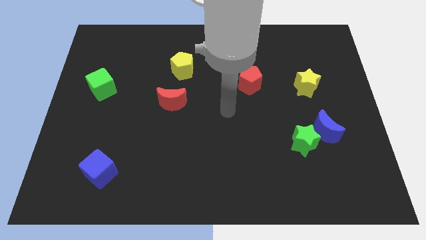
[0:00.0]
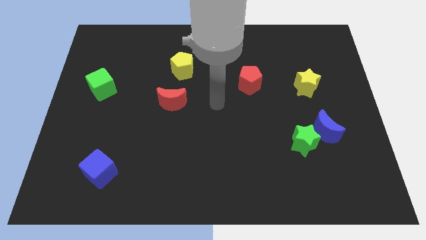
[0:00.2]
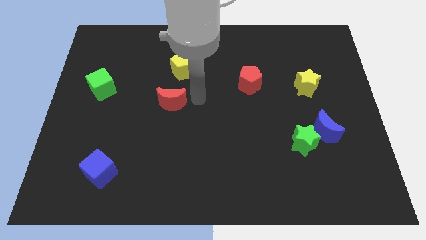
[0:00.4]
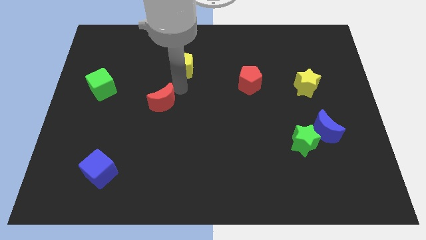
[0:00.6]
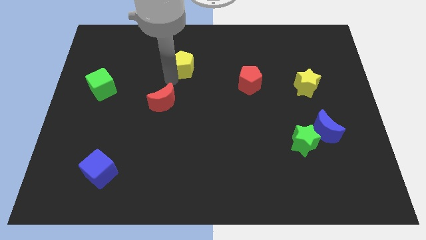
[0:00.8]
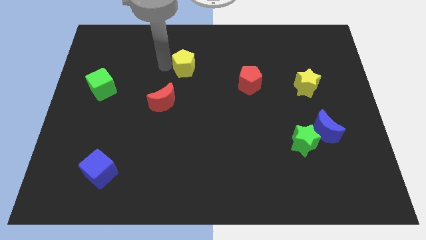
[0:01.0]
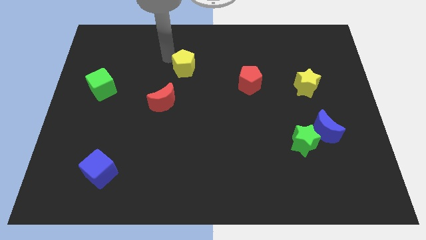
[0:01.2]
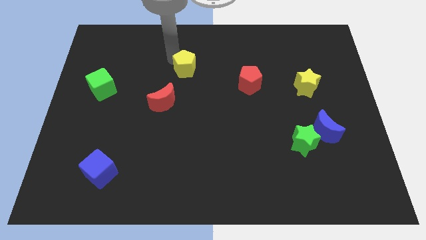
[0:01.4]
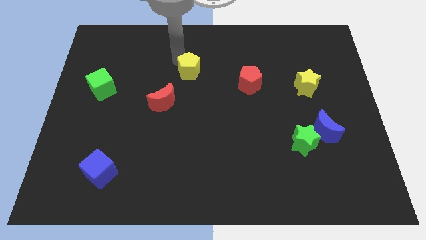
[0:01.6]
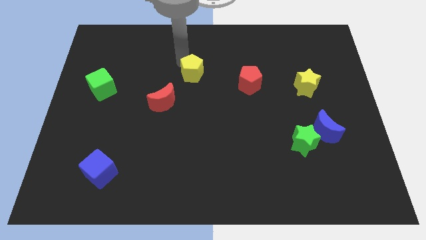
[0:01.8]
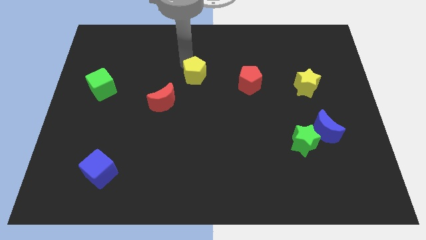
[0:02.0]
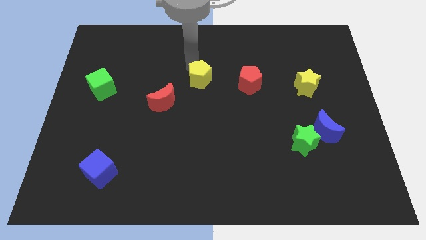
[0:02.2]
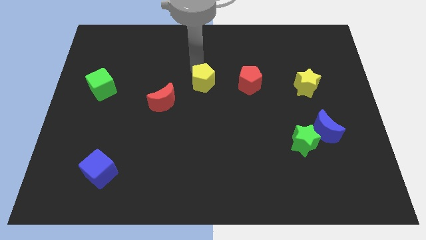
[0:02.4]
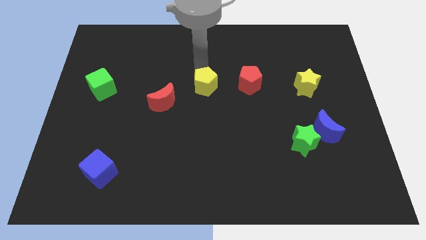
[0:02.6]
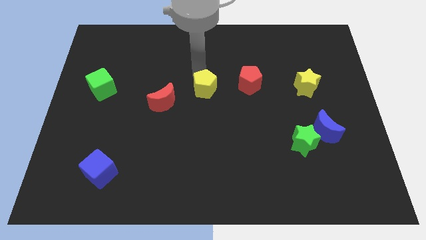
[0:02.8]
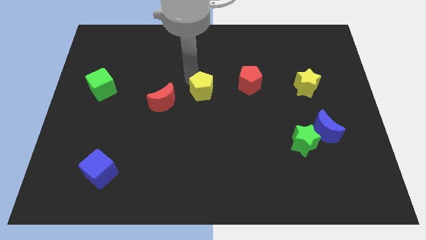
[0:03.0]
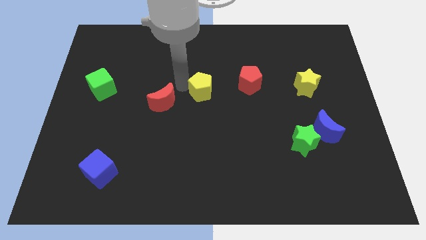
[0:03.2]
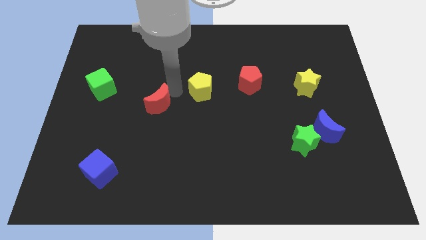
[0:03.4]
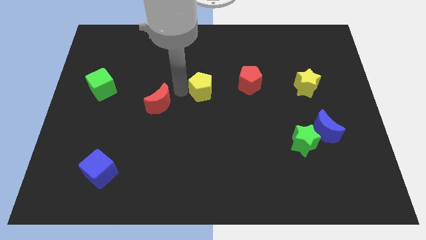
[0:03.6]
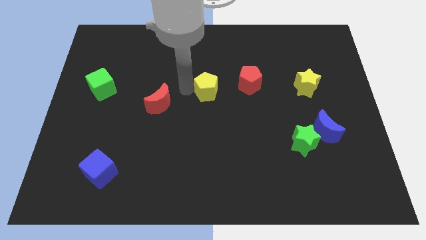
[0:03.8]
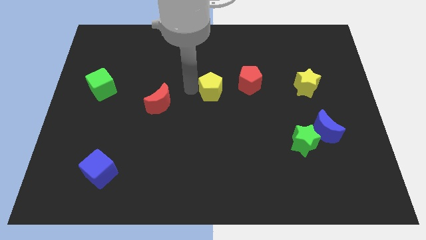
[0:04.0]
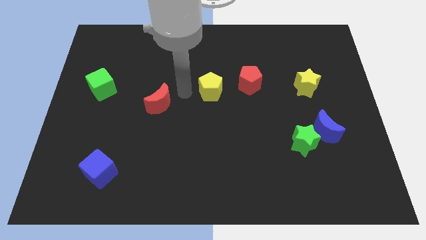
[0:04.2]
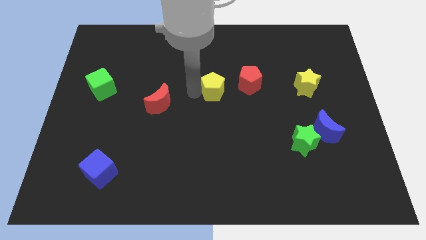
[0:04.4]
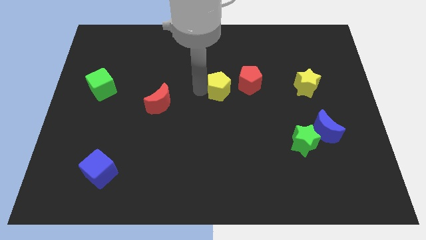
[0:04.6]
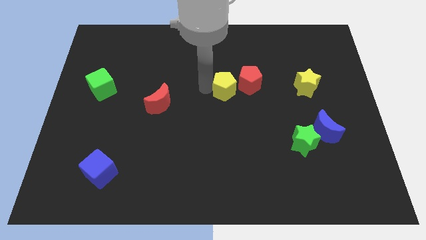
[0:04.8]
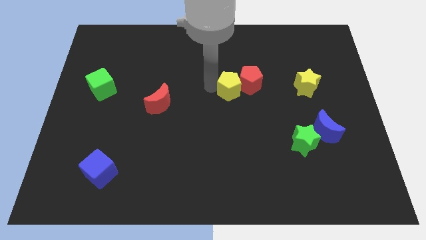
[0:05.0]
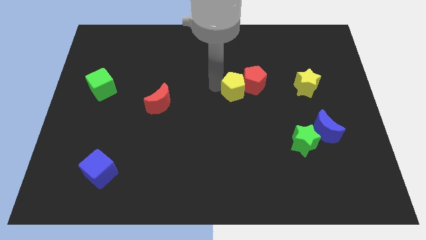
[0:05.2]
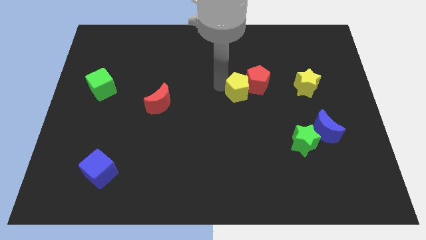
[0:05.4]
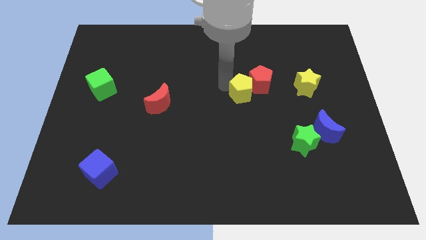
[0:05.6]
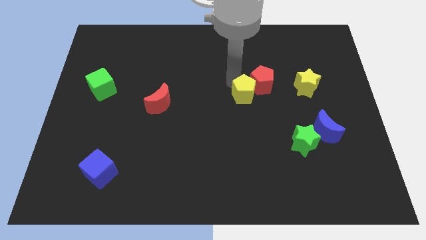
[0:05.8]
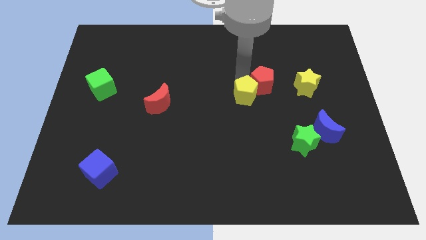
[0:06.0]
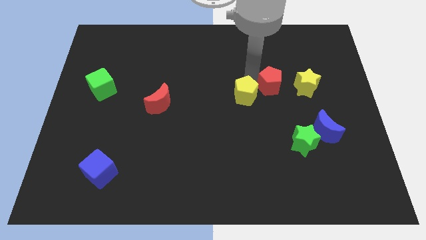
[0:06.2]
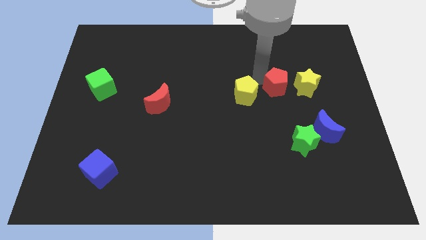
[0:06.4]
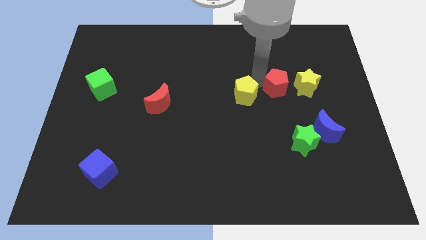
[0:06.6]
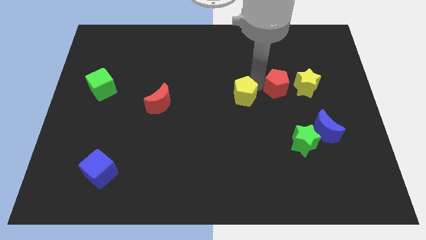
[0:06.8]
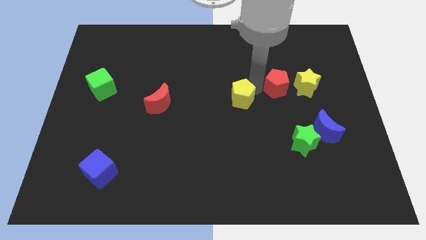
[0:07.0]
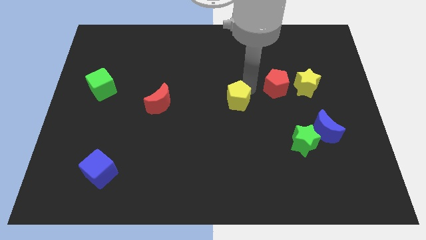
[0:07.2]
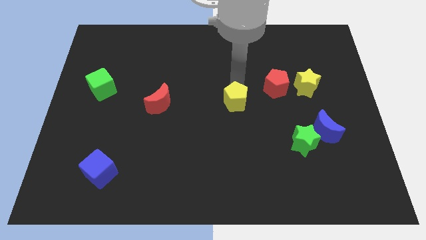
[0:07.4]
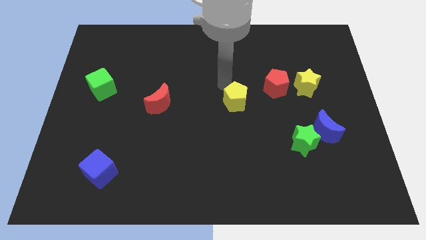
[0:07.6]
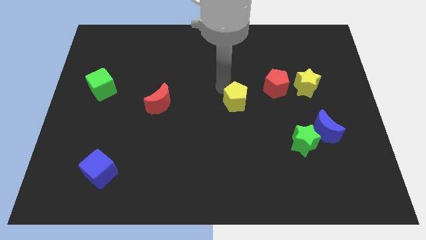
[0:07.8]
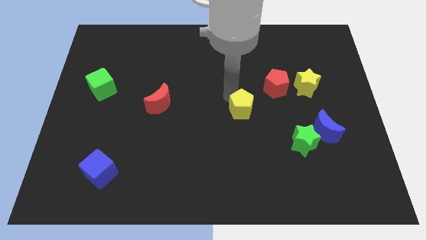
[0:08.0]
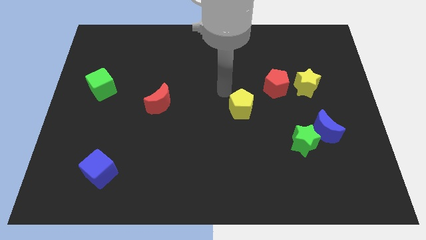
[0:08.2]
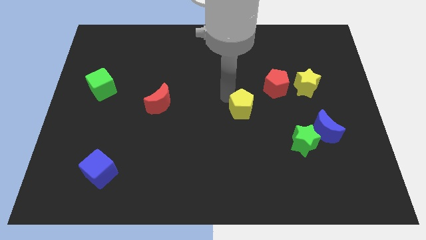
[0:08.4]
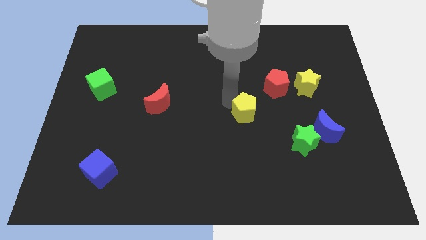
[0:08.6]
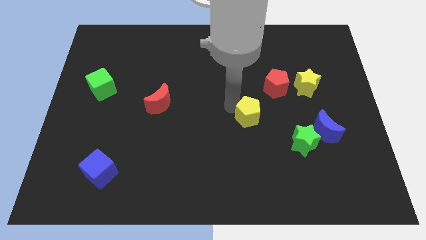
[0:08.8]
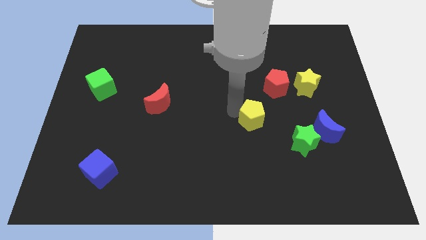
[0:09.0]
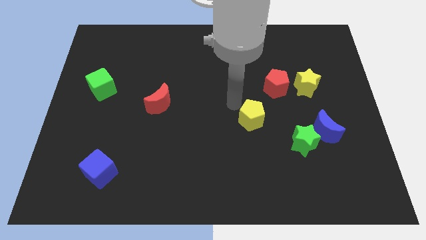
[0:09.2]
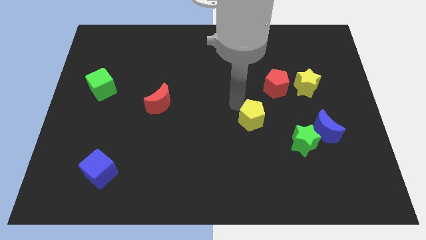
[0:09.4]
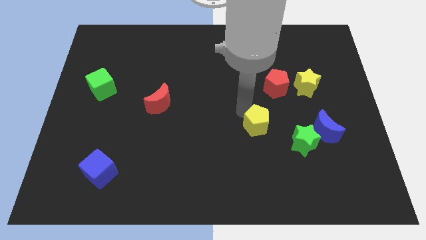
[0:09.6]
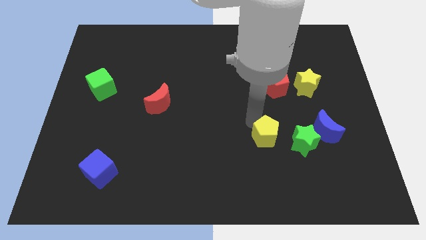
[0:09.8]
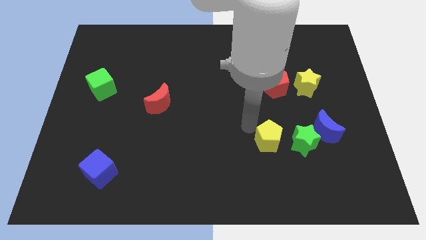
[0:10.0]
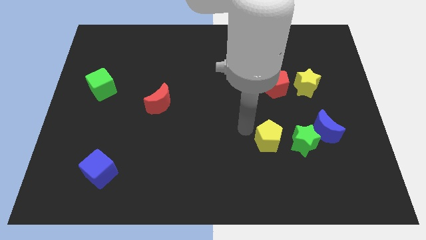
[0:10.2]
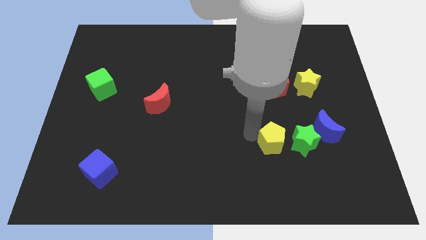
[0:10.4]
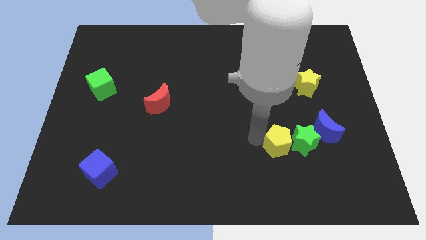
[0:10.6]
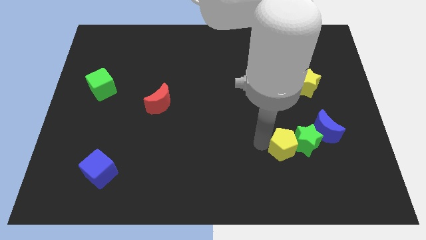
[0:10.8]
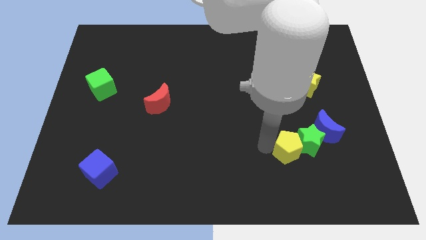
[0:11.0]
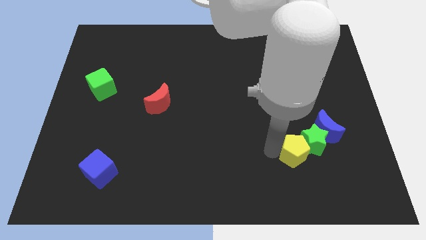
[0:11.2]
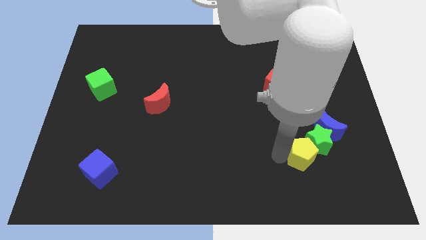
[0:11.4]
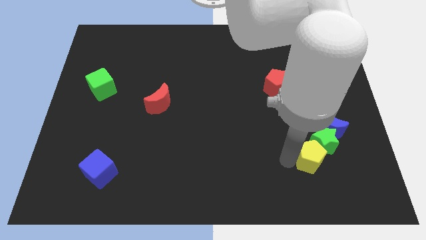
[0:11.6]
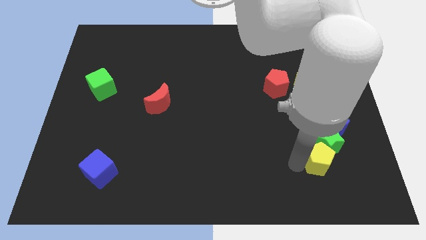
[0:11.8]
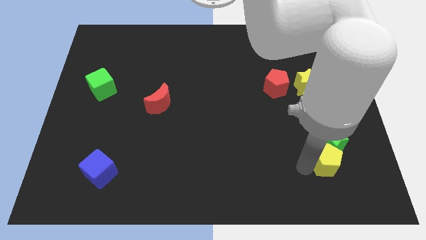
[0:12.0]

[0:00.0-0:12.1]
move the yellow pentagon to the bottom right side of the green star

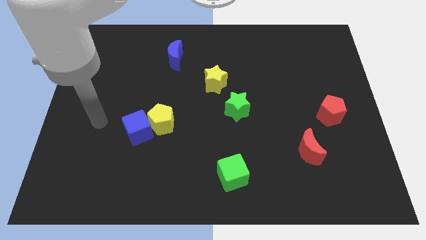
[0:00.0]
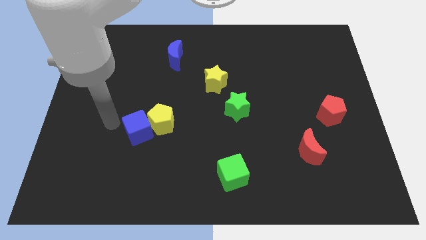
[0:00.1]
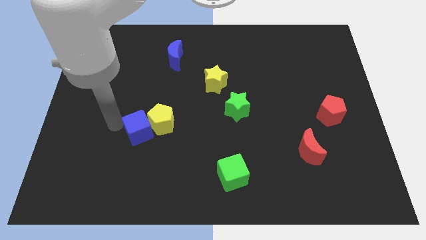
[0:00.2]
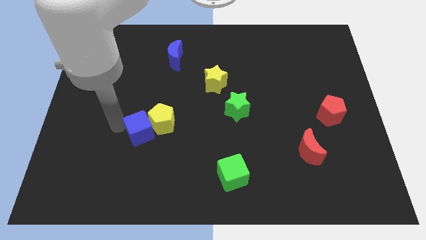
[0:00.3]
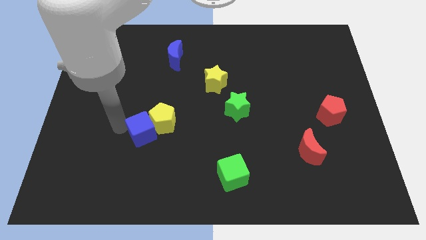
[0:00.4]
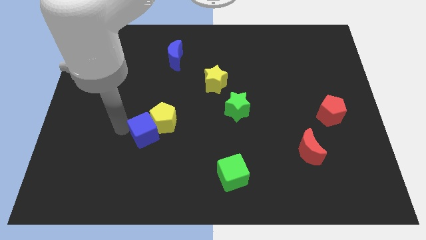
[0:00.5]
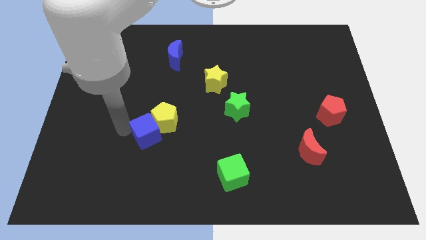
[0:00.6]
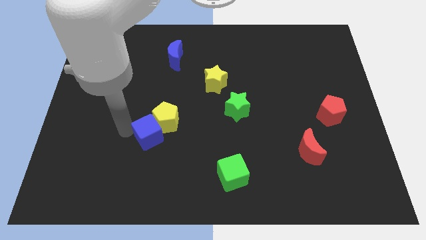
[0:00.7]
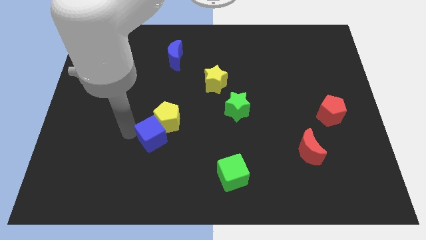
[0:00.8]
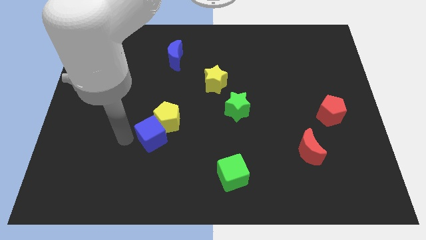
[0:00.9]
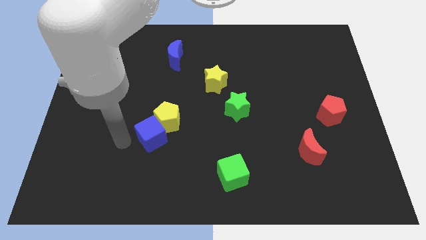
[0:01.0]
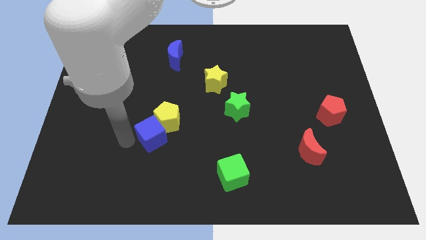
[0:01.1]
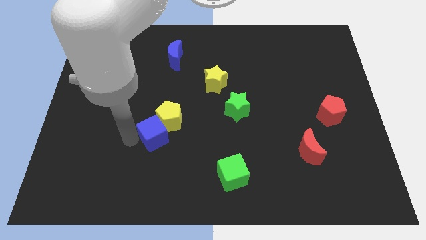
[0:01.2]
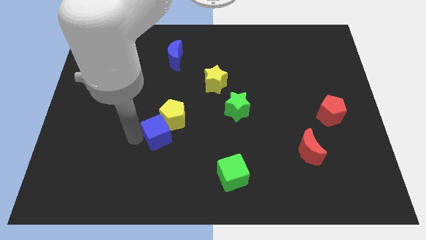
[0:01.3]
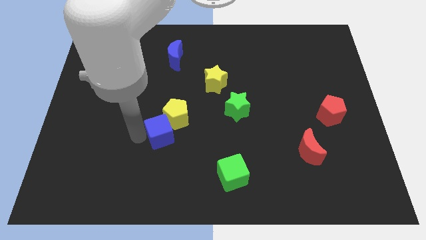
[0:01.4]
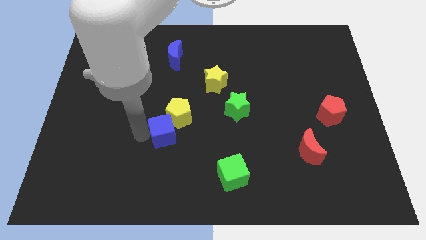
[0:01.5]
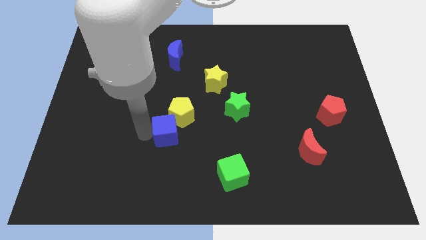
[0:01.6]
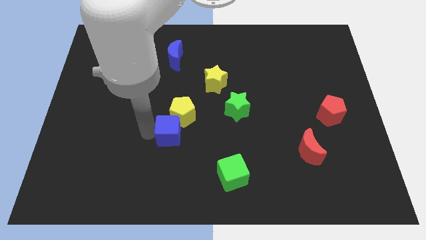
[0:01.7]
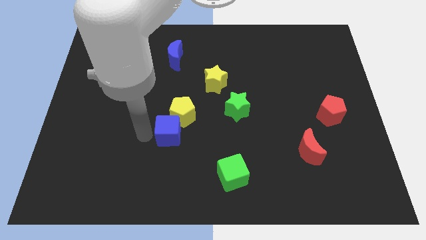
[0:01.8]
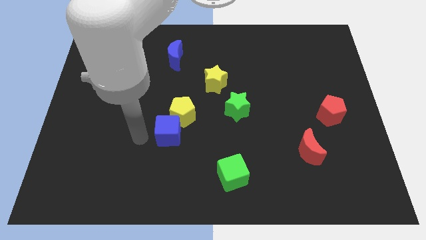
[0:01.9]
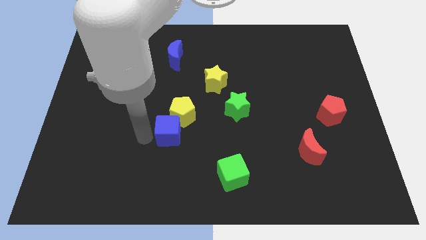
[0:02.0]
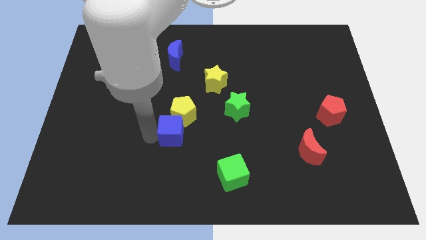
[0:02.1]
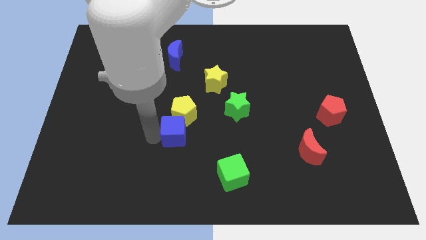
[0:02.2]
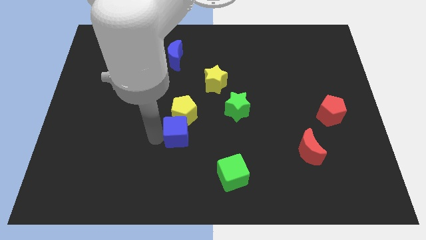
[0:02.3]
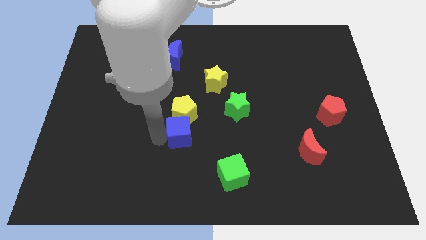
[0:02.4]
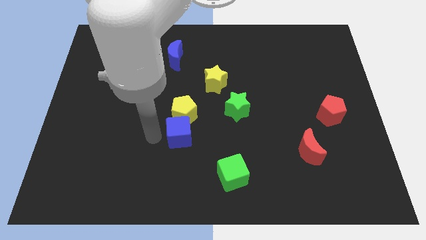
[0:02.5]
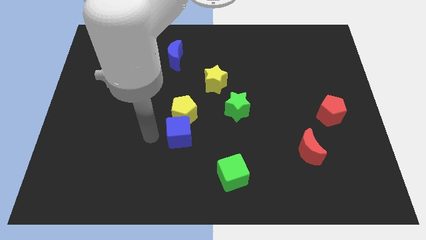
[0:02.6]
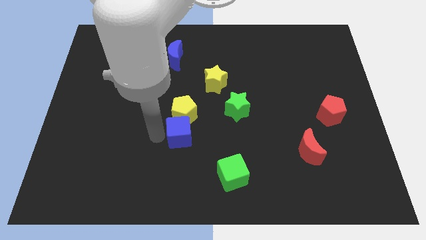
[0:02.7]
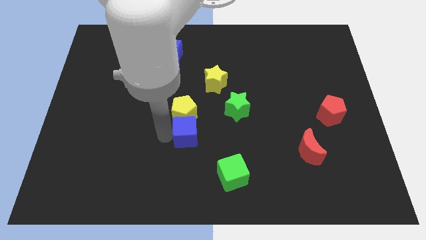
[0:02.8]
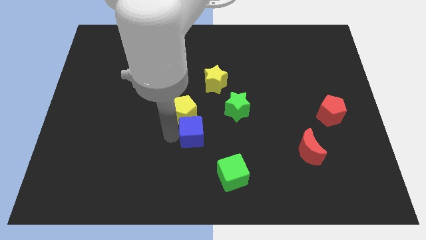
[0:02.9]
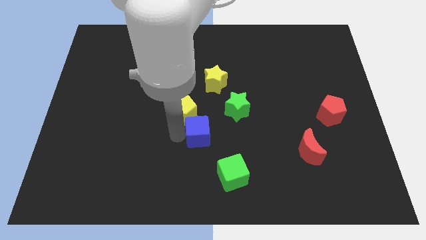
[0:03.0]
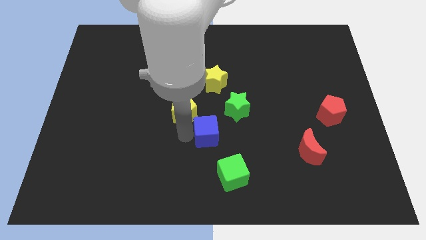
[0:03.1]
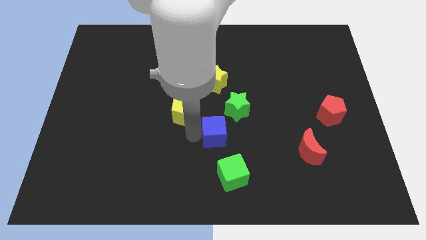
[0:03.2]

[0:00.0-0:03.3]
put the blue cube to the top side of the green cube
